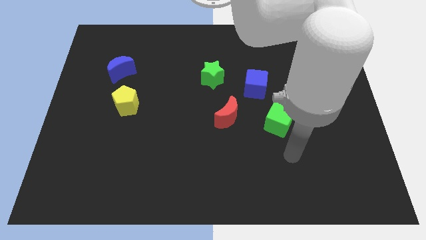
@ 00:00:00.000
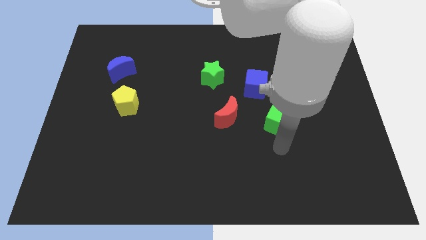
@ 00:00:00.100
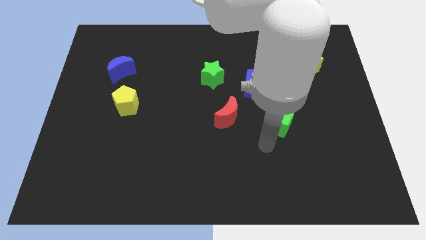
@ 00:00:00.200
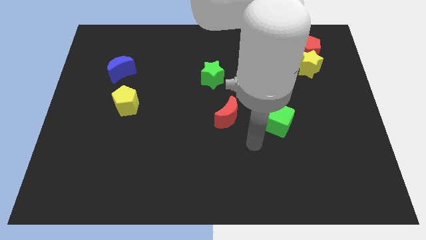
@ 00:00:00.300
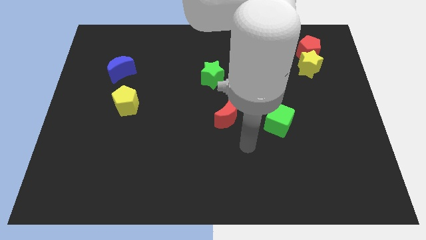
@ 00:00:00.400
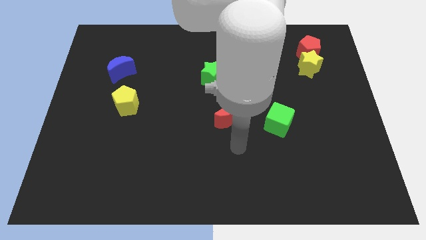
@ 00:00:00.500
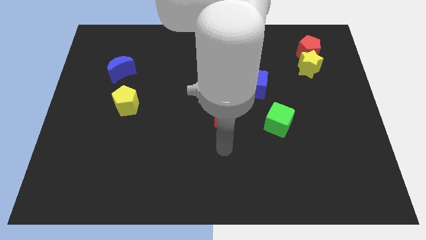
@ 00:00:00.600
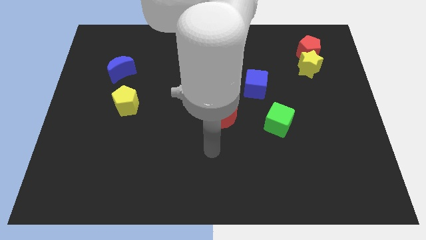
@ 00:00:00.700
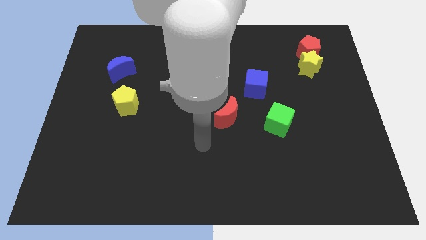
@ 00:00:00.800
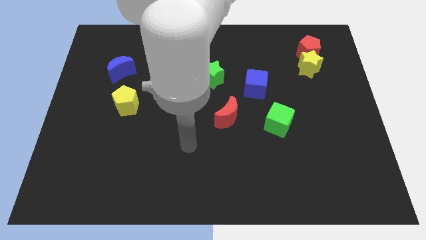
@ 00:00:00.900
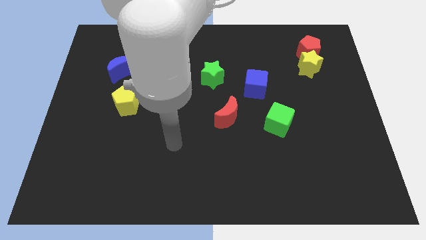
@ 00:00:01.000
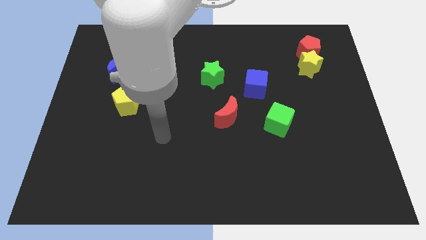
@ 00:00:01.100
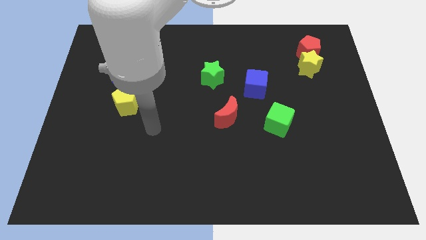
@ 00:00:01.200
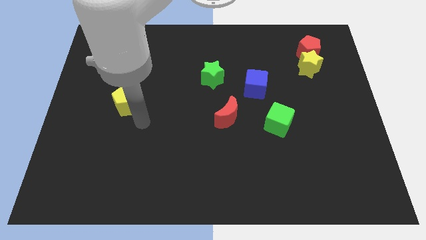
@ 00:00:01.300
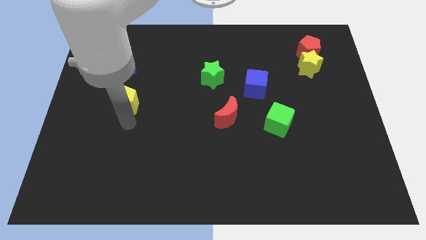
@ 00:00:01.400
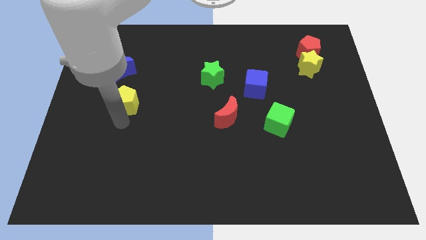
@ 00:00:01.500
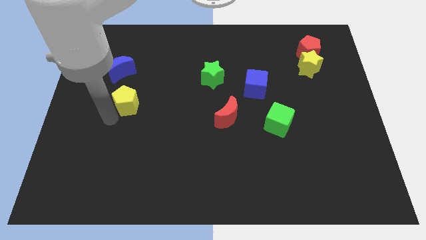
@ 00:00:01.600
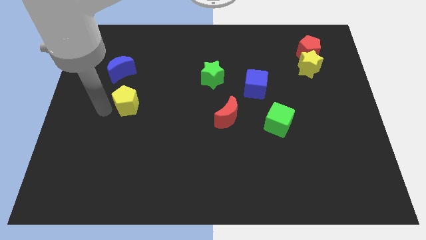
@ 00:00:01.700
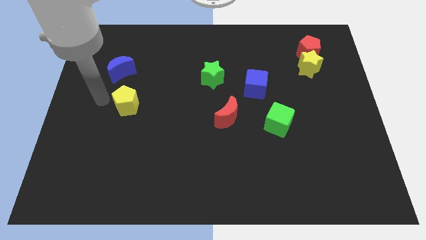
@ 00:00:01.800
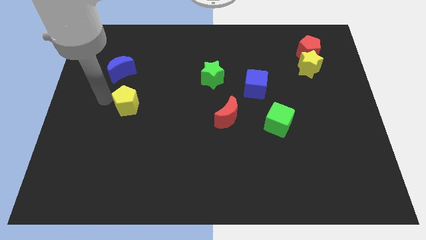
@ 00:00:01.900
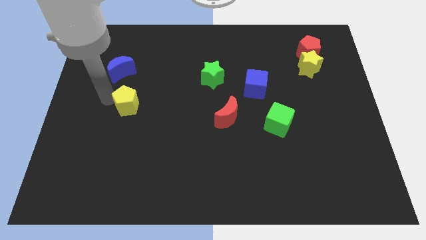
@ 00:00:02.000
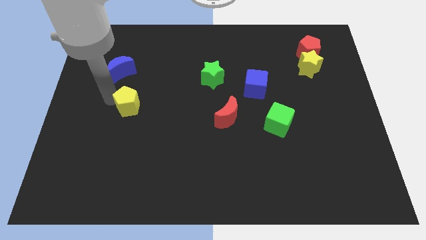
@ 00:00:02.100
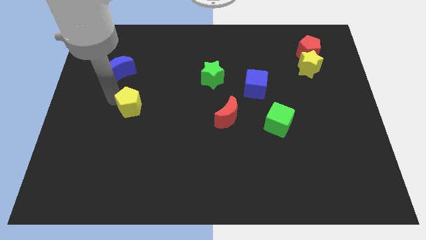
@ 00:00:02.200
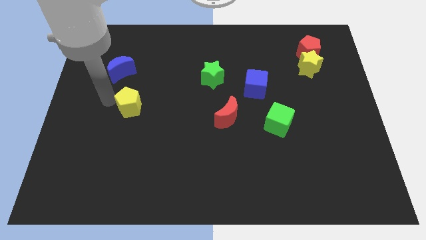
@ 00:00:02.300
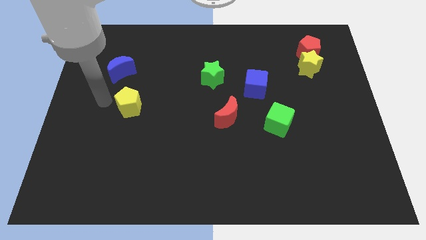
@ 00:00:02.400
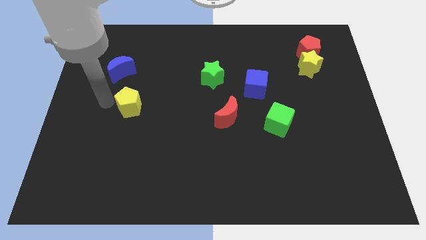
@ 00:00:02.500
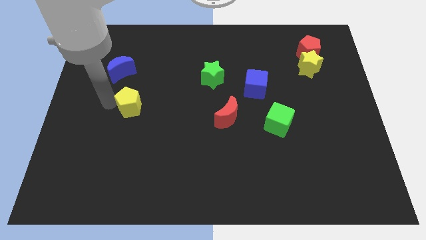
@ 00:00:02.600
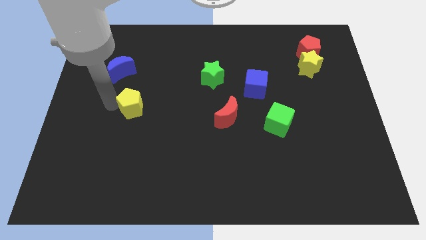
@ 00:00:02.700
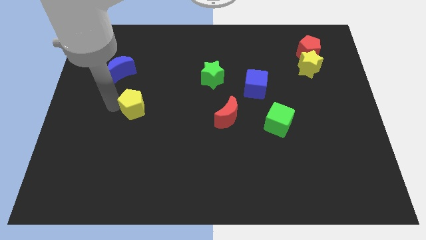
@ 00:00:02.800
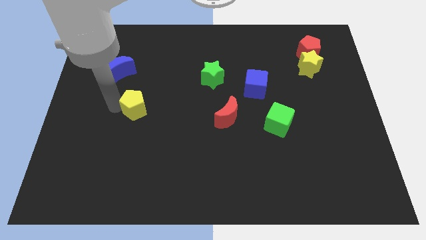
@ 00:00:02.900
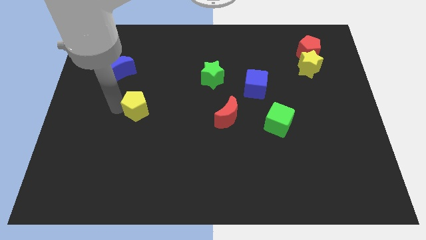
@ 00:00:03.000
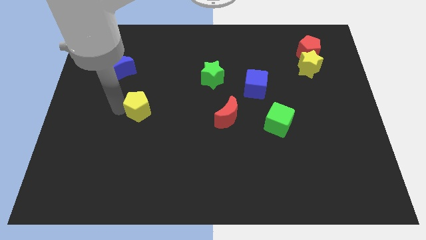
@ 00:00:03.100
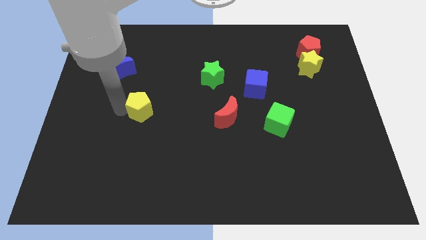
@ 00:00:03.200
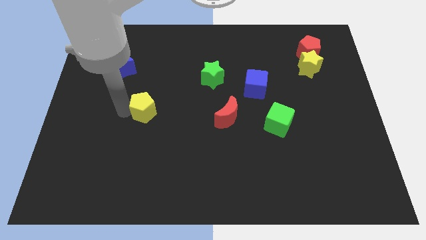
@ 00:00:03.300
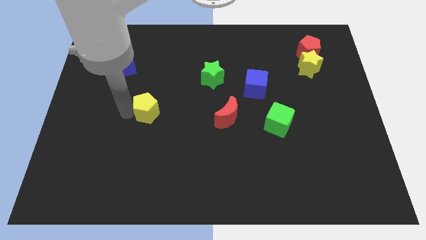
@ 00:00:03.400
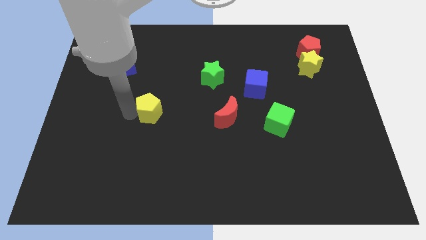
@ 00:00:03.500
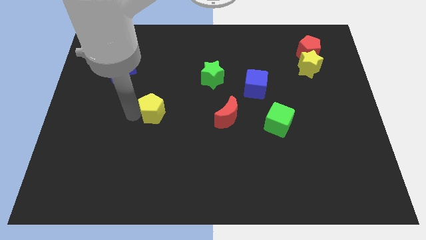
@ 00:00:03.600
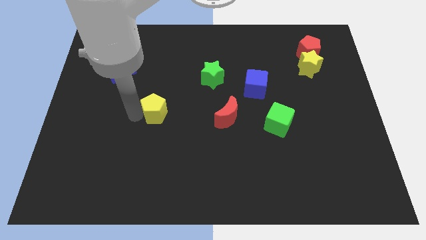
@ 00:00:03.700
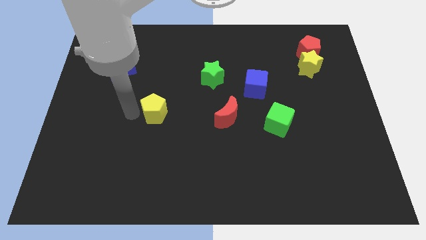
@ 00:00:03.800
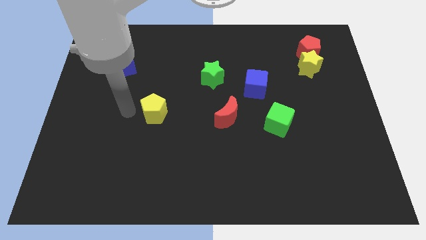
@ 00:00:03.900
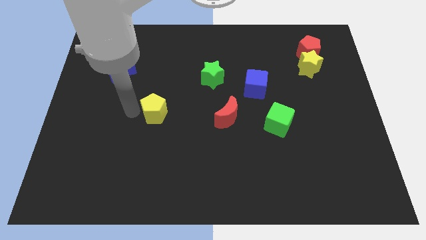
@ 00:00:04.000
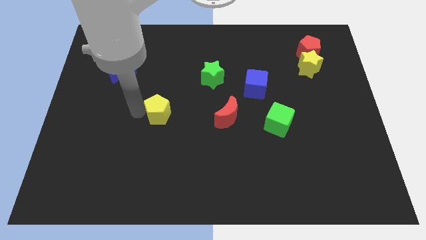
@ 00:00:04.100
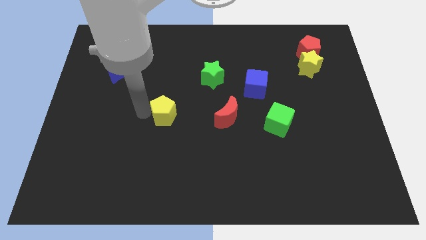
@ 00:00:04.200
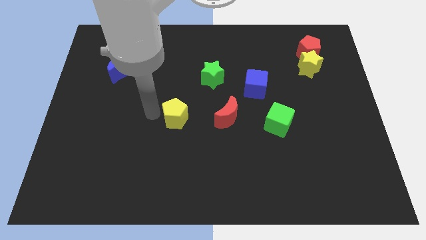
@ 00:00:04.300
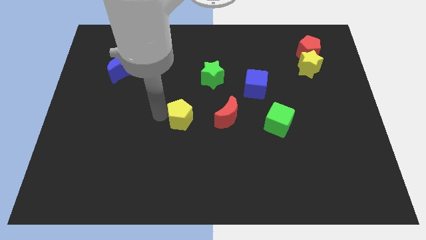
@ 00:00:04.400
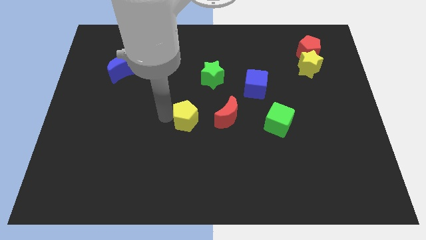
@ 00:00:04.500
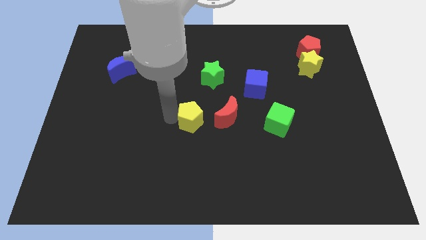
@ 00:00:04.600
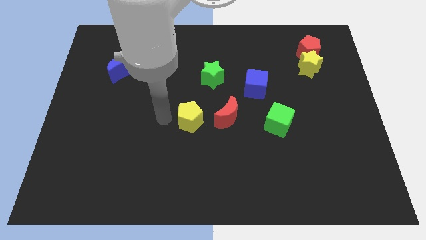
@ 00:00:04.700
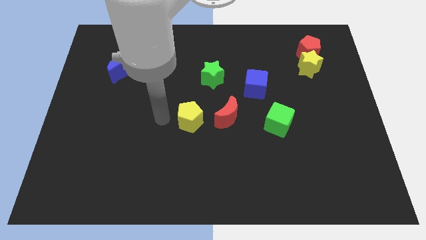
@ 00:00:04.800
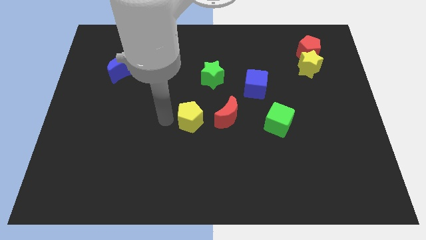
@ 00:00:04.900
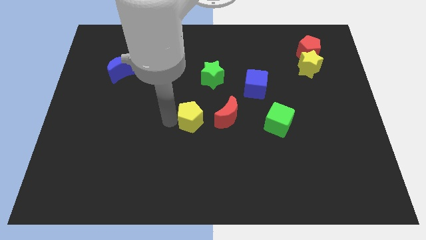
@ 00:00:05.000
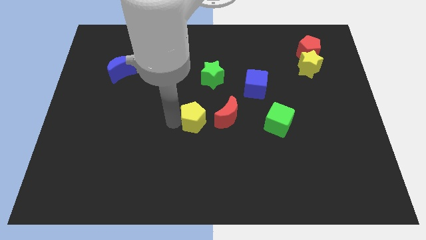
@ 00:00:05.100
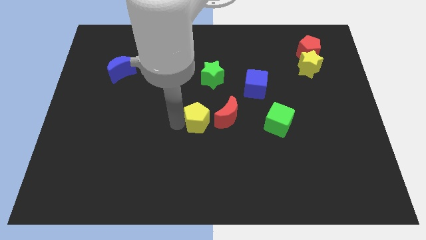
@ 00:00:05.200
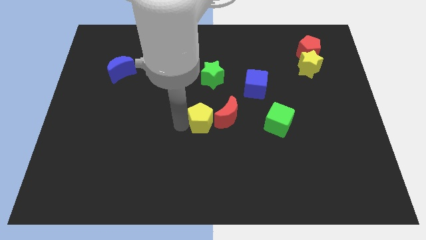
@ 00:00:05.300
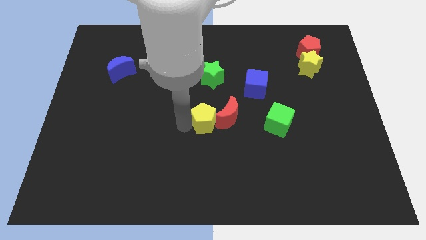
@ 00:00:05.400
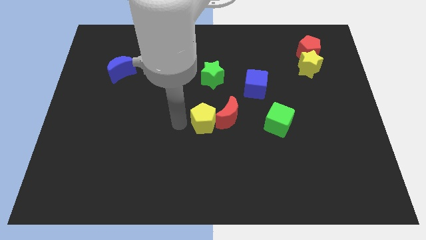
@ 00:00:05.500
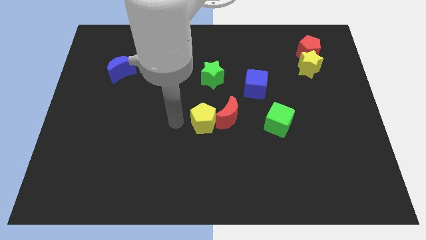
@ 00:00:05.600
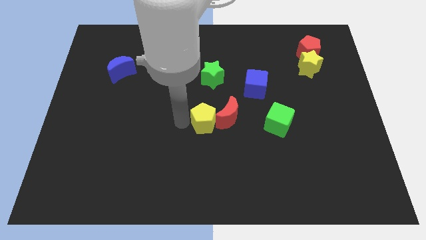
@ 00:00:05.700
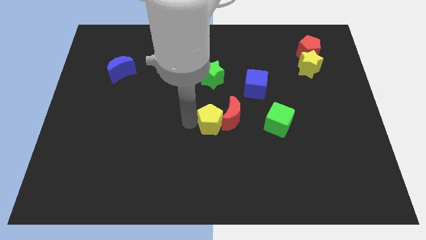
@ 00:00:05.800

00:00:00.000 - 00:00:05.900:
put the yellow pentagon to the left side of the green cube

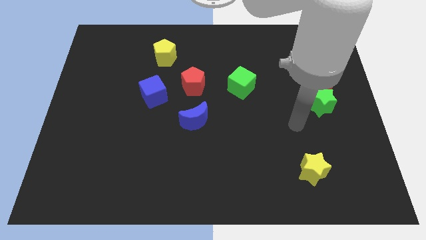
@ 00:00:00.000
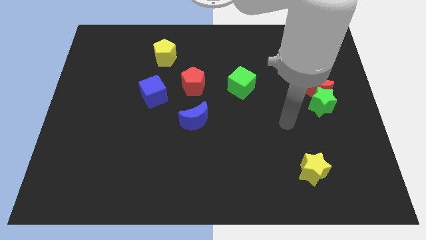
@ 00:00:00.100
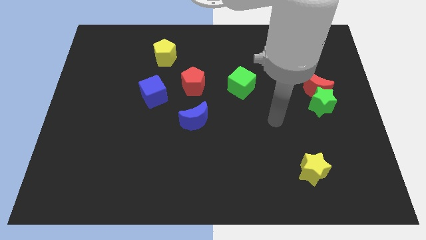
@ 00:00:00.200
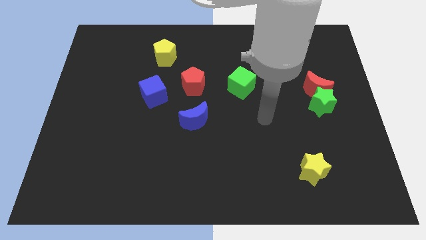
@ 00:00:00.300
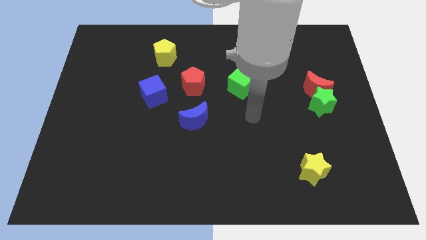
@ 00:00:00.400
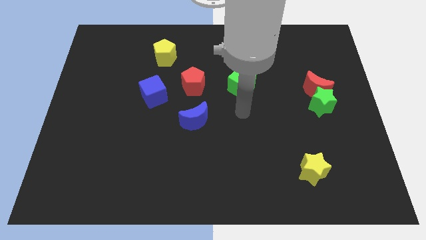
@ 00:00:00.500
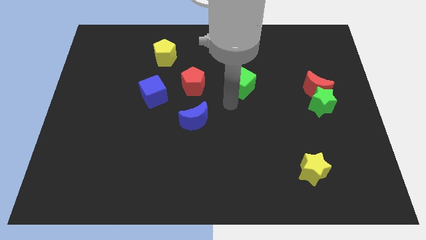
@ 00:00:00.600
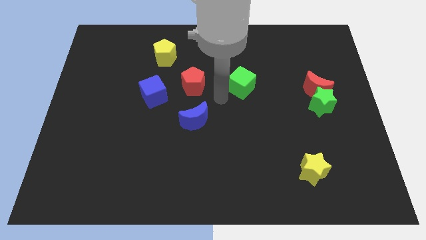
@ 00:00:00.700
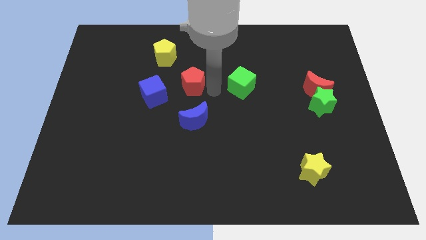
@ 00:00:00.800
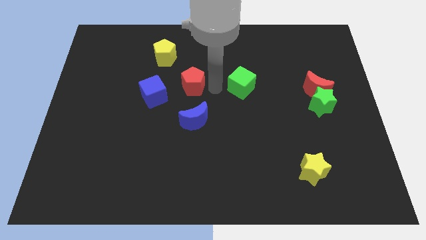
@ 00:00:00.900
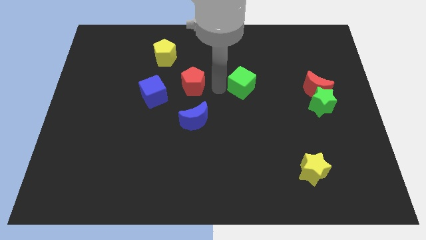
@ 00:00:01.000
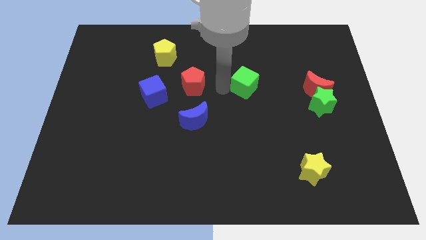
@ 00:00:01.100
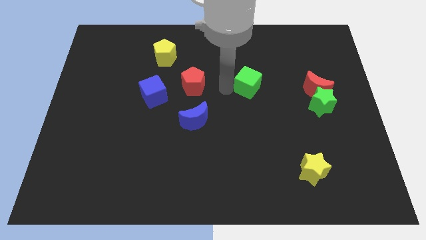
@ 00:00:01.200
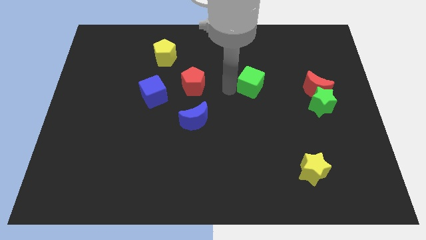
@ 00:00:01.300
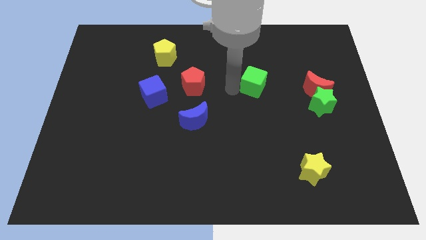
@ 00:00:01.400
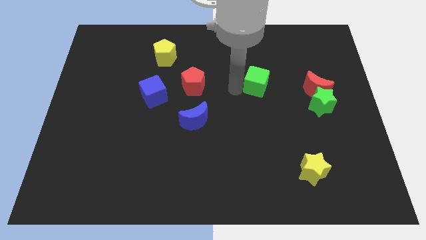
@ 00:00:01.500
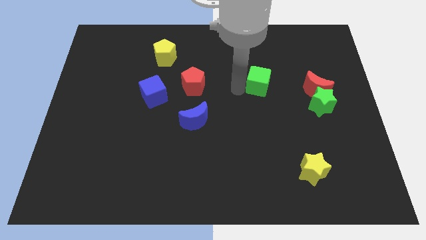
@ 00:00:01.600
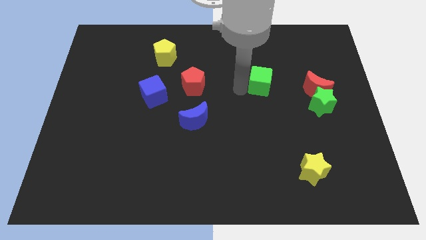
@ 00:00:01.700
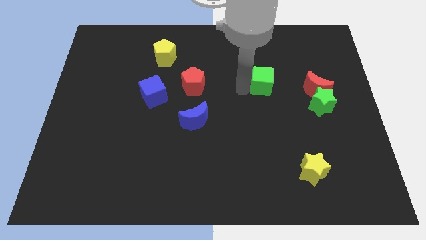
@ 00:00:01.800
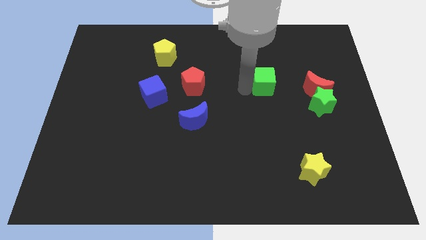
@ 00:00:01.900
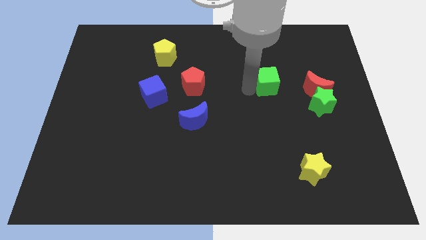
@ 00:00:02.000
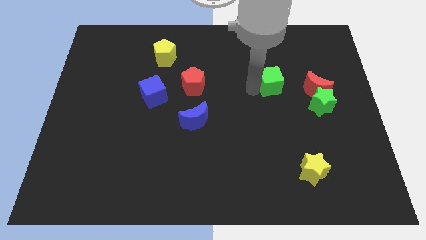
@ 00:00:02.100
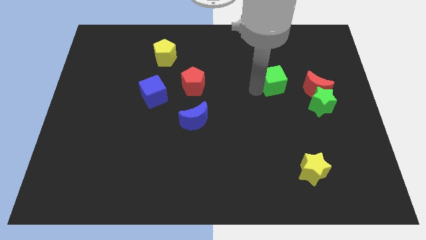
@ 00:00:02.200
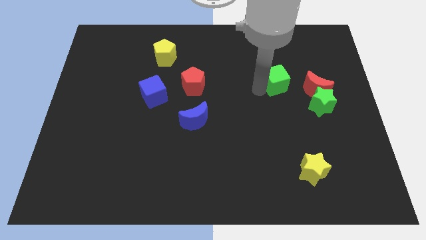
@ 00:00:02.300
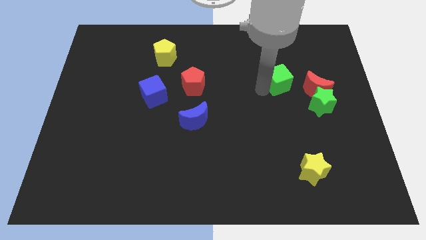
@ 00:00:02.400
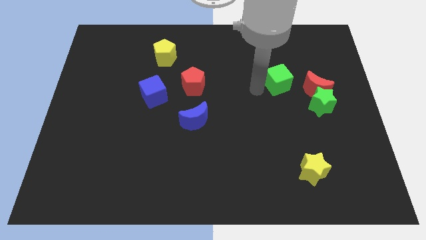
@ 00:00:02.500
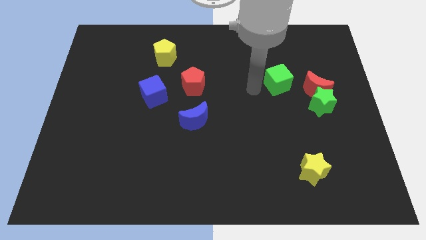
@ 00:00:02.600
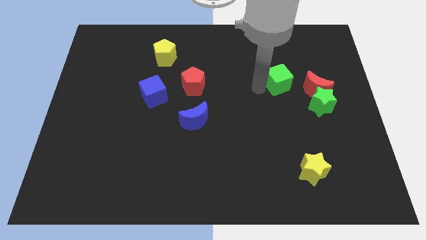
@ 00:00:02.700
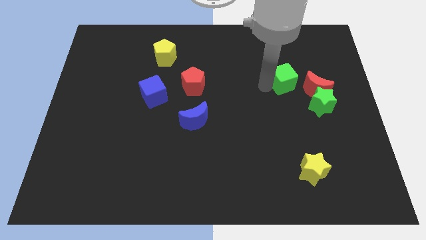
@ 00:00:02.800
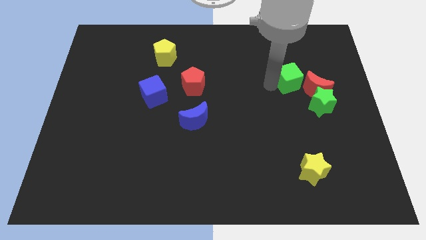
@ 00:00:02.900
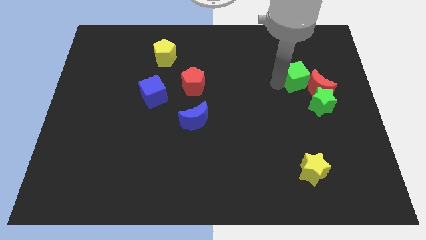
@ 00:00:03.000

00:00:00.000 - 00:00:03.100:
slide the green cube to the top of the green star
